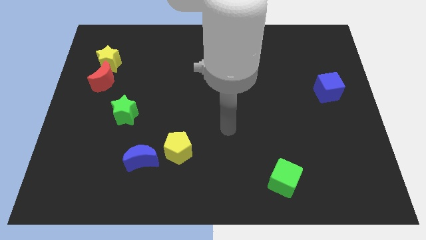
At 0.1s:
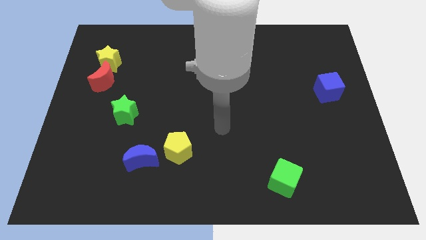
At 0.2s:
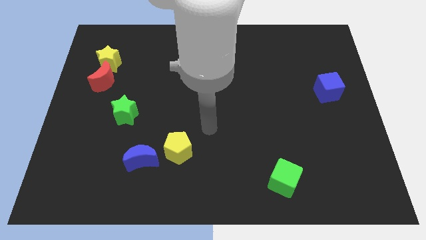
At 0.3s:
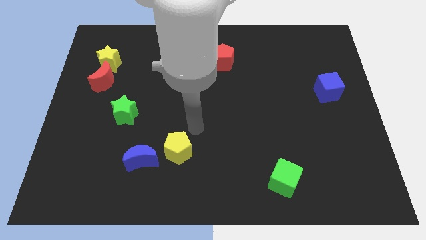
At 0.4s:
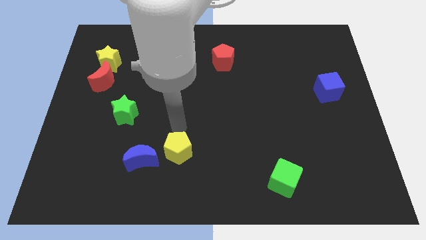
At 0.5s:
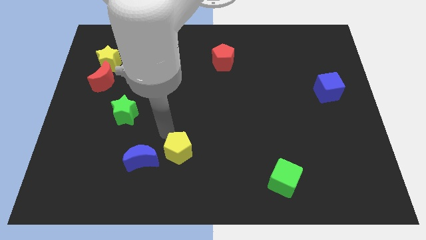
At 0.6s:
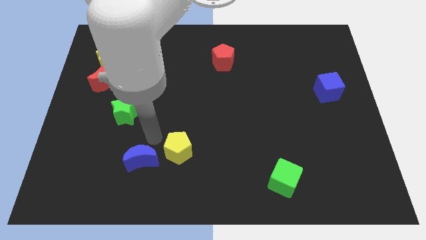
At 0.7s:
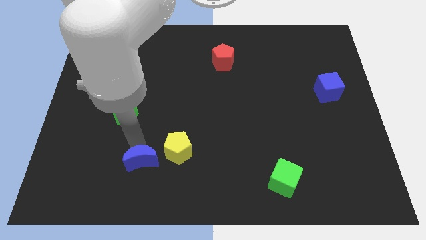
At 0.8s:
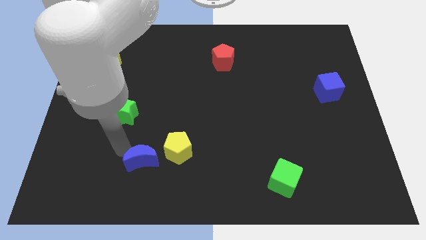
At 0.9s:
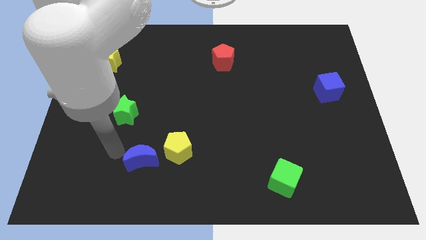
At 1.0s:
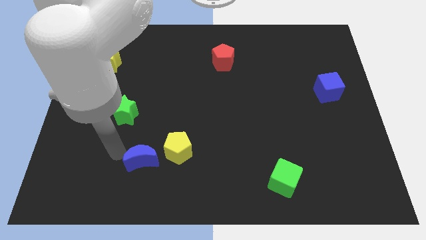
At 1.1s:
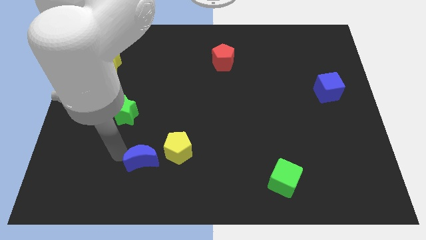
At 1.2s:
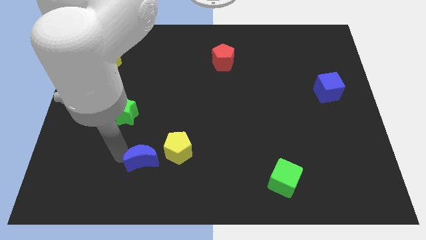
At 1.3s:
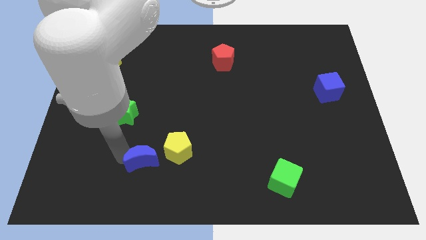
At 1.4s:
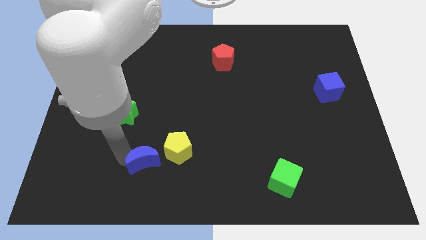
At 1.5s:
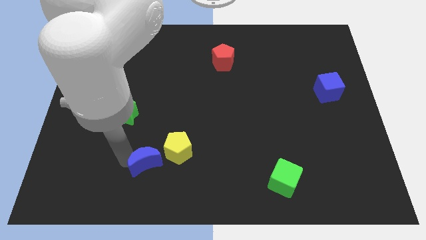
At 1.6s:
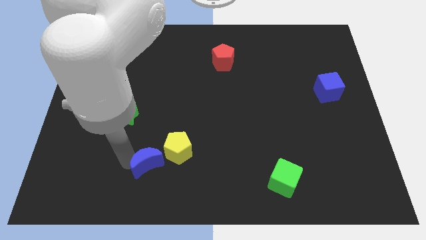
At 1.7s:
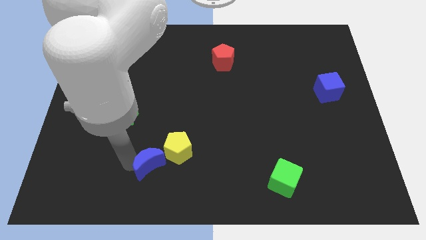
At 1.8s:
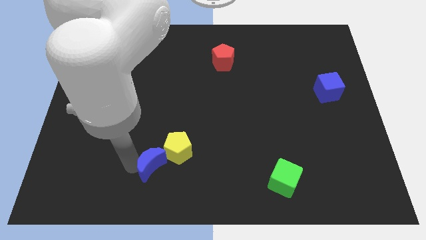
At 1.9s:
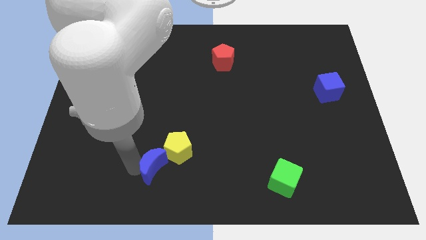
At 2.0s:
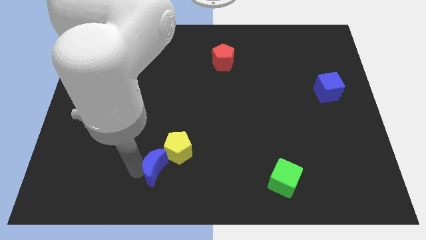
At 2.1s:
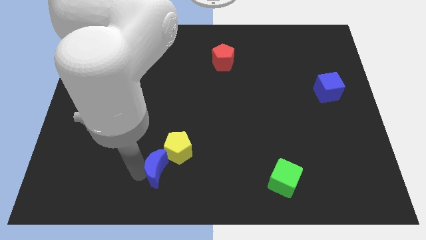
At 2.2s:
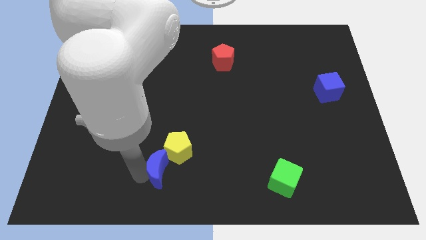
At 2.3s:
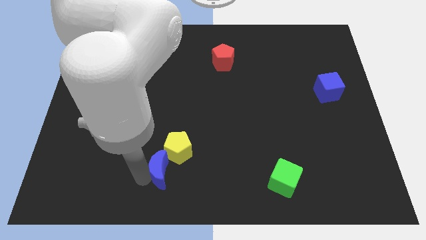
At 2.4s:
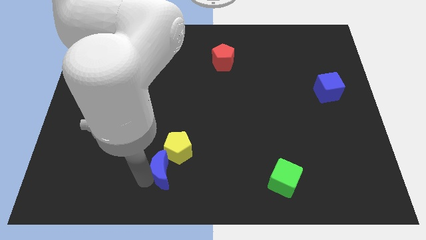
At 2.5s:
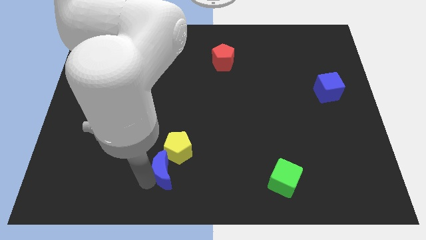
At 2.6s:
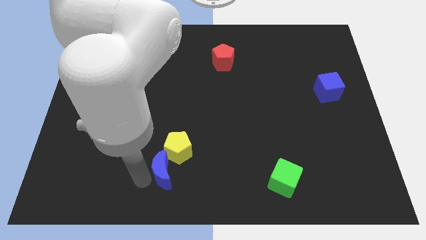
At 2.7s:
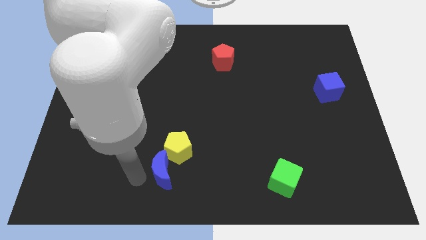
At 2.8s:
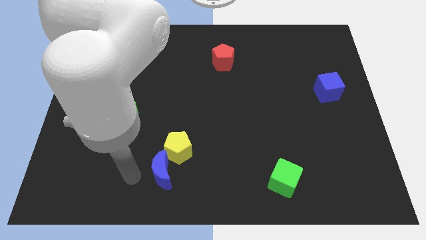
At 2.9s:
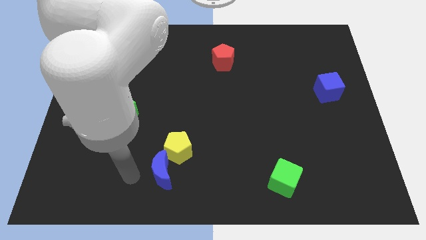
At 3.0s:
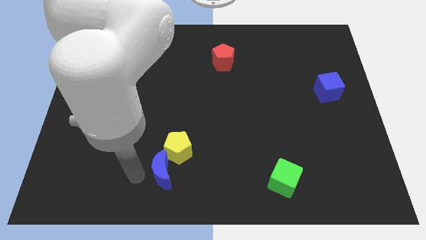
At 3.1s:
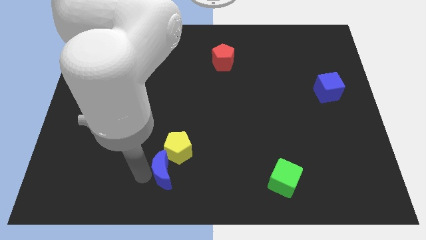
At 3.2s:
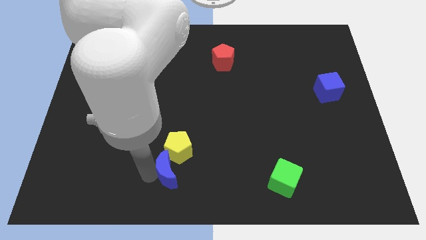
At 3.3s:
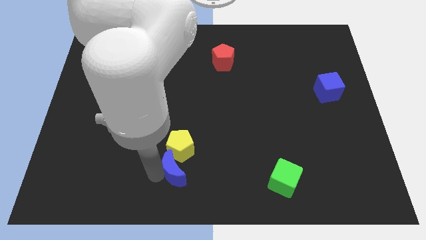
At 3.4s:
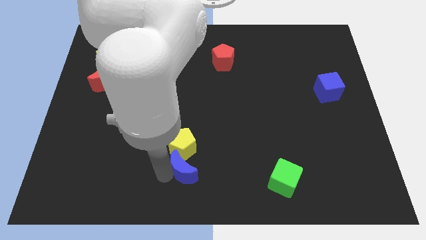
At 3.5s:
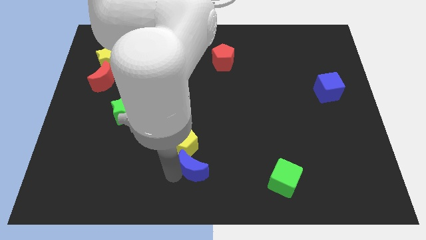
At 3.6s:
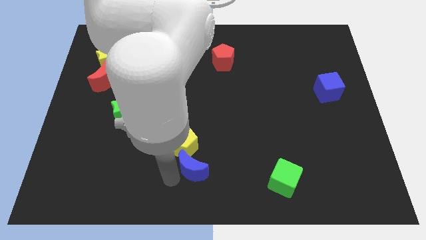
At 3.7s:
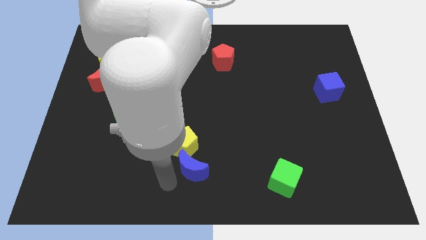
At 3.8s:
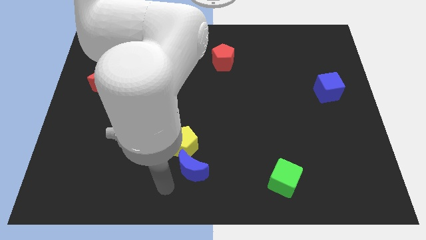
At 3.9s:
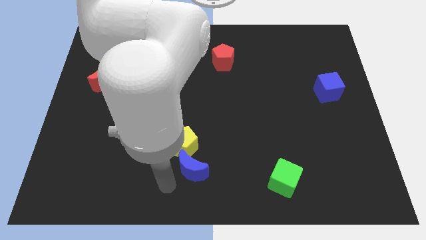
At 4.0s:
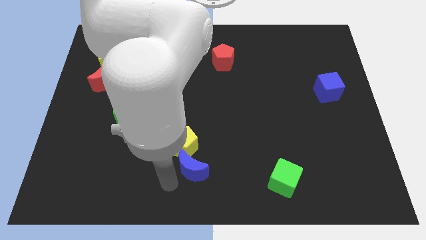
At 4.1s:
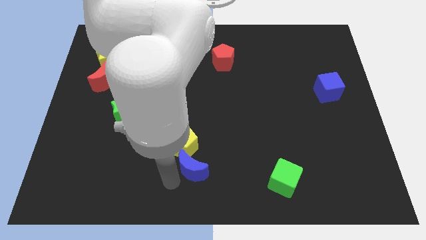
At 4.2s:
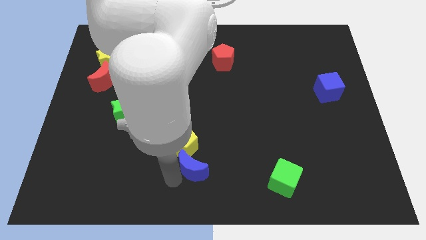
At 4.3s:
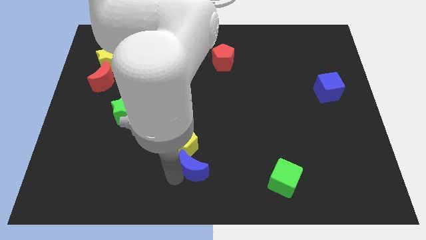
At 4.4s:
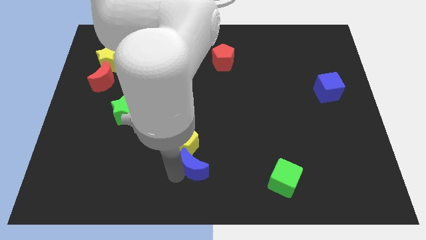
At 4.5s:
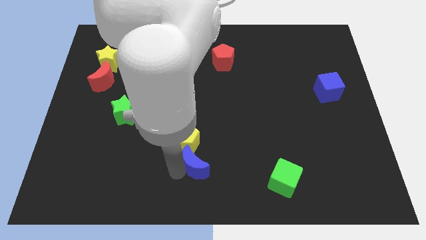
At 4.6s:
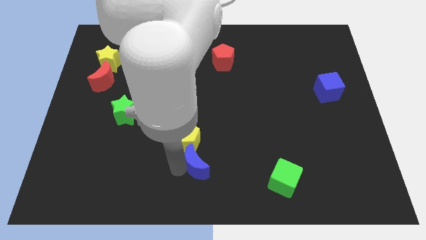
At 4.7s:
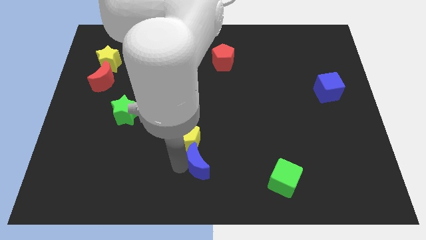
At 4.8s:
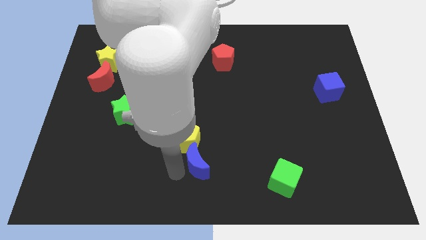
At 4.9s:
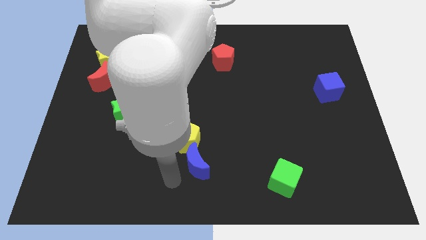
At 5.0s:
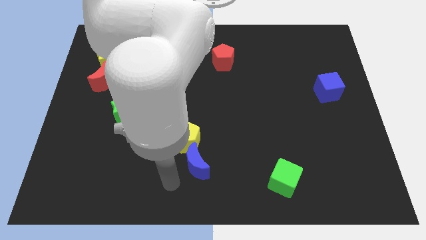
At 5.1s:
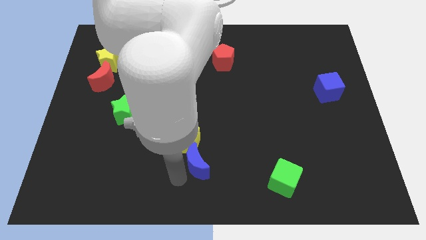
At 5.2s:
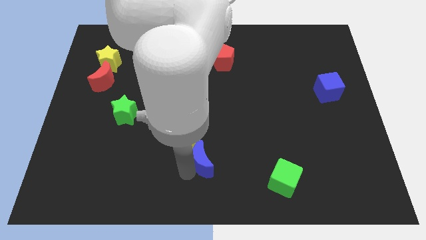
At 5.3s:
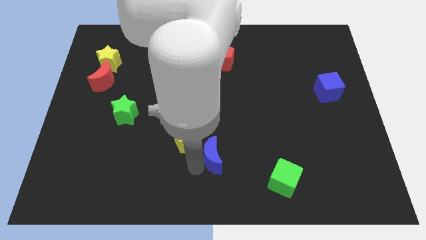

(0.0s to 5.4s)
push the blue moon to the right of the yellow pentagon
